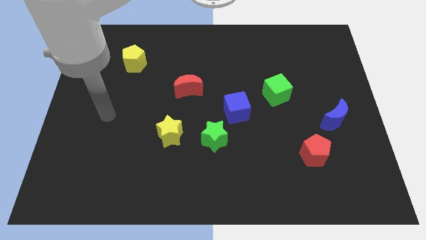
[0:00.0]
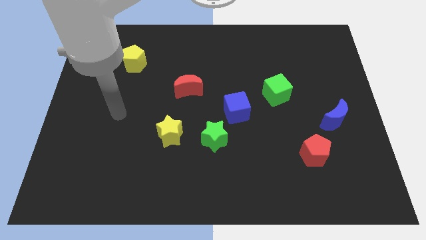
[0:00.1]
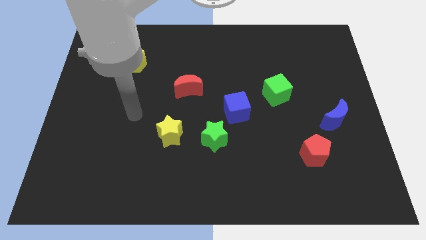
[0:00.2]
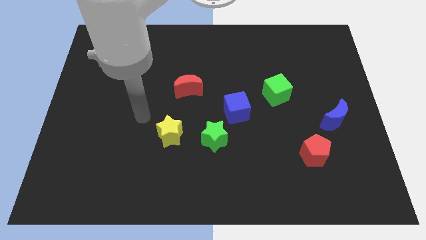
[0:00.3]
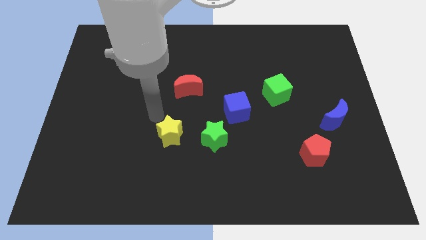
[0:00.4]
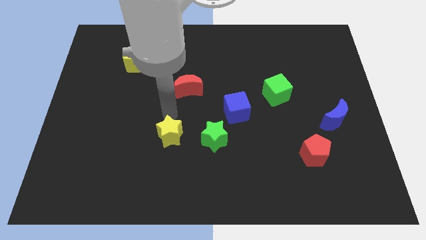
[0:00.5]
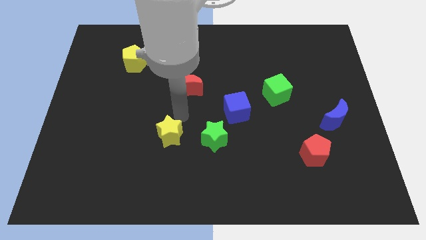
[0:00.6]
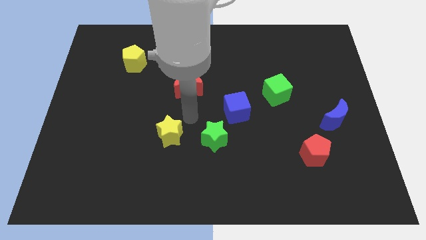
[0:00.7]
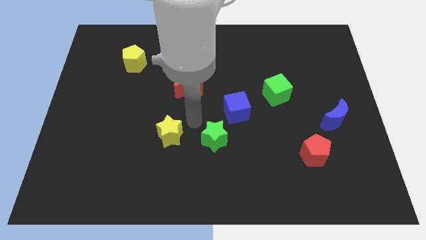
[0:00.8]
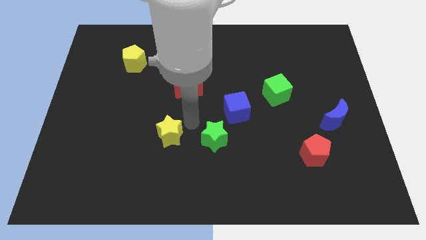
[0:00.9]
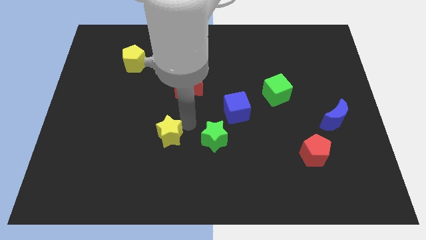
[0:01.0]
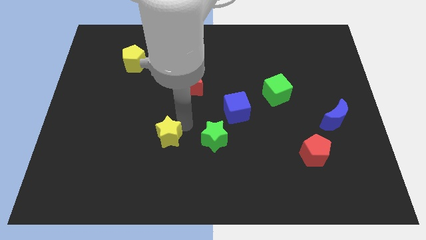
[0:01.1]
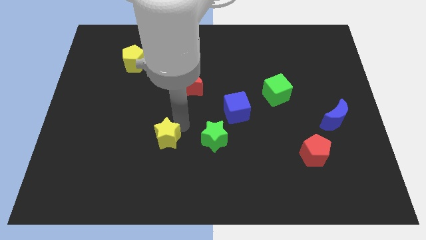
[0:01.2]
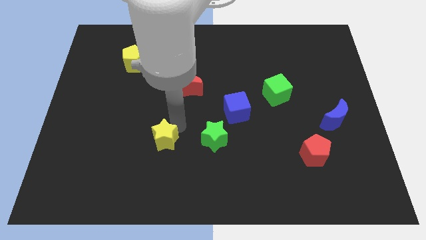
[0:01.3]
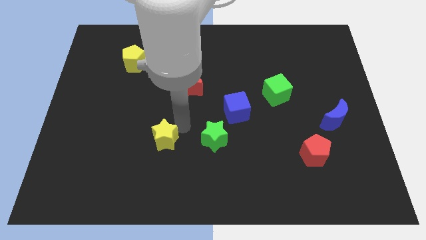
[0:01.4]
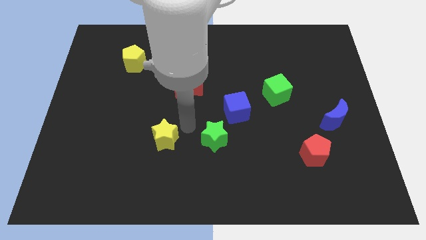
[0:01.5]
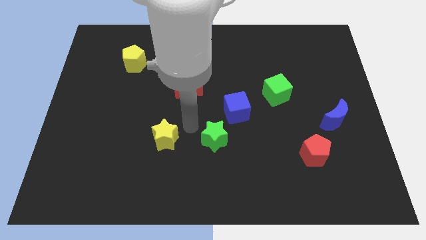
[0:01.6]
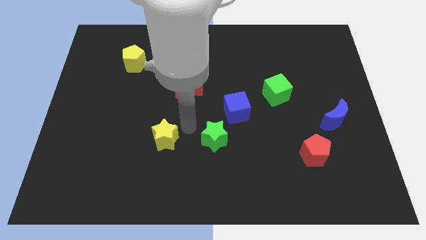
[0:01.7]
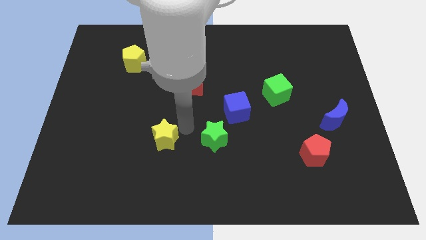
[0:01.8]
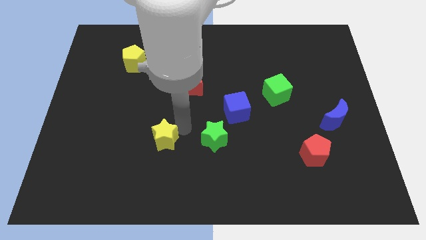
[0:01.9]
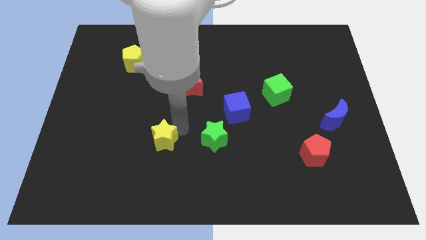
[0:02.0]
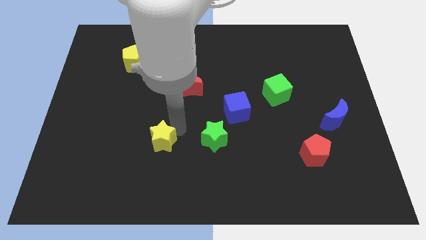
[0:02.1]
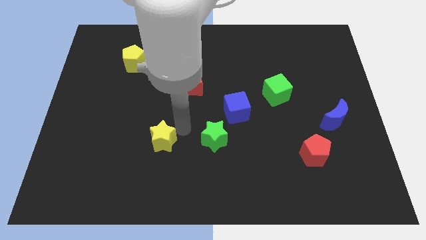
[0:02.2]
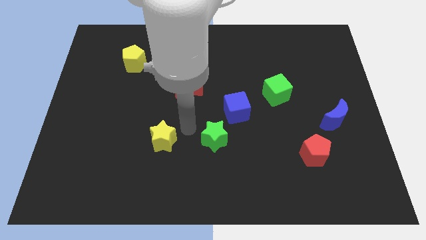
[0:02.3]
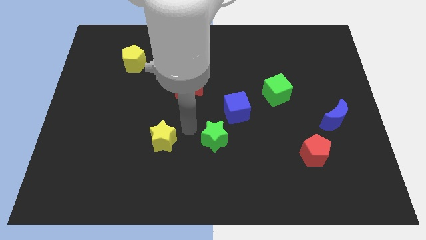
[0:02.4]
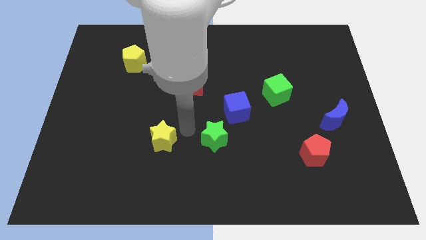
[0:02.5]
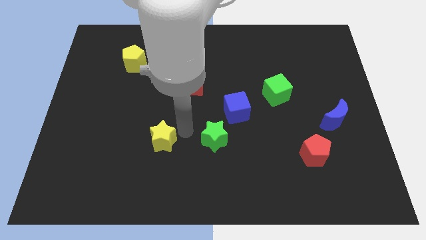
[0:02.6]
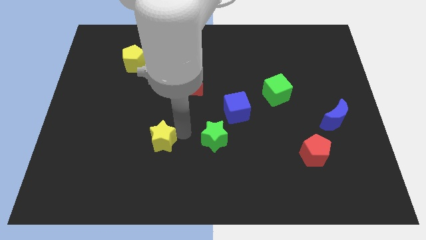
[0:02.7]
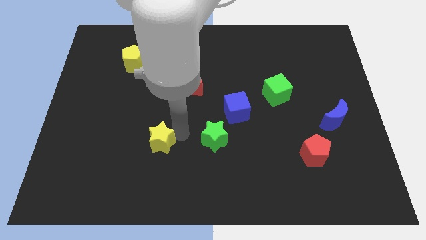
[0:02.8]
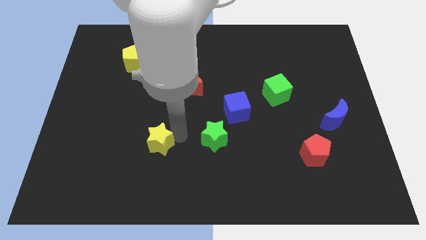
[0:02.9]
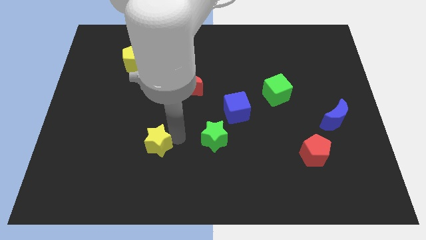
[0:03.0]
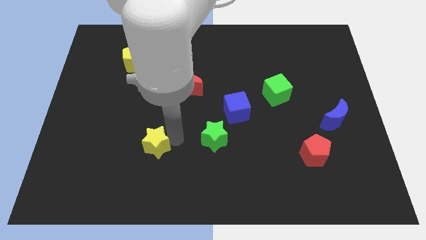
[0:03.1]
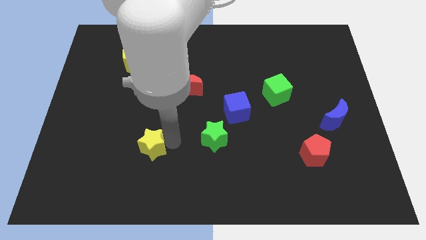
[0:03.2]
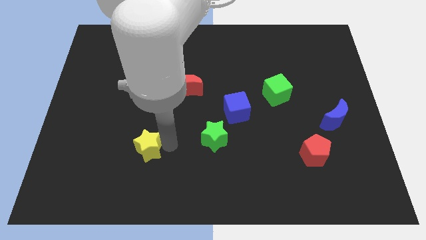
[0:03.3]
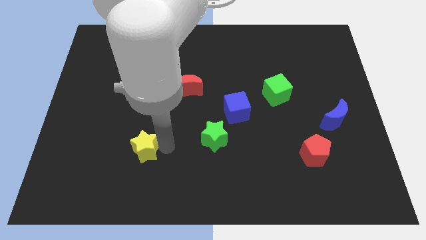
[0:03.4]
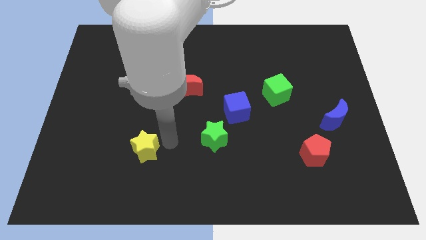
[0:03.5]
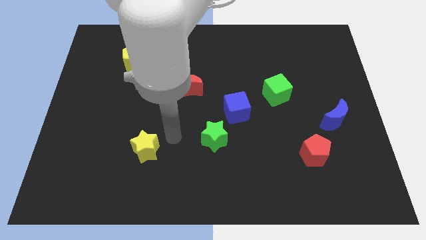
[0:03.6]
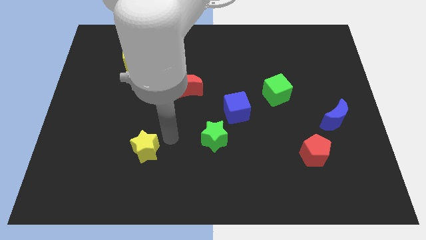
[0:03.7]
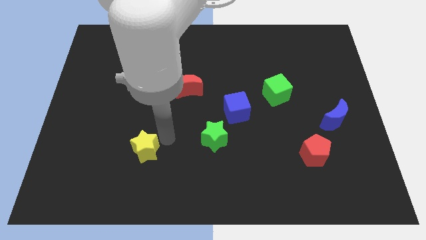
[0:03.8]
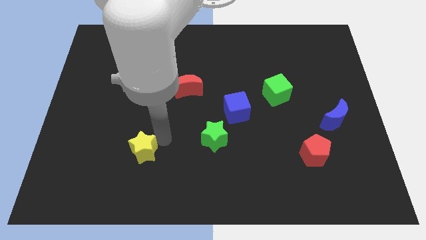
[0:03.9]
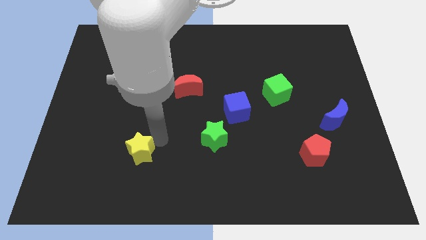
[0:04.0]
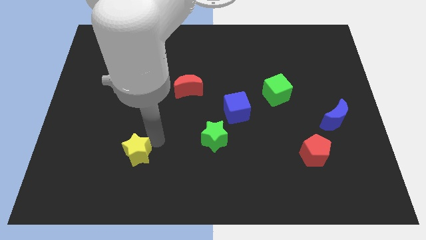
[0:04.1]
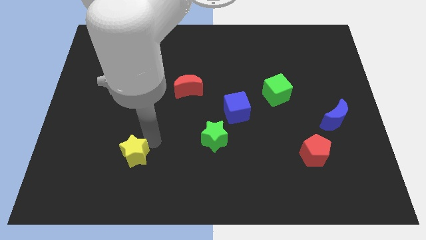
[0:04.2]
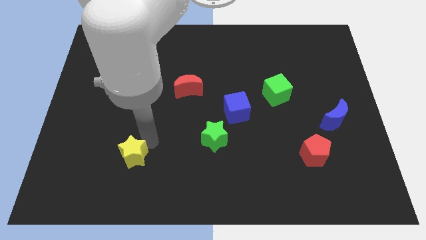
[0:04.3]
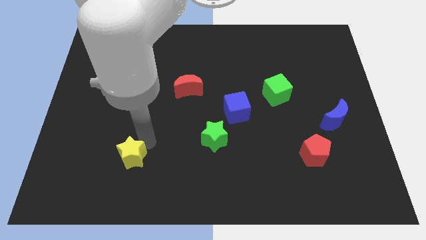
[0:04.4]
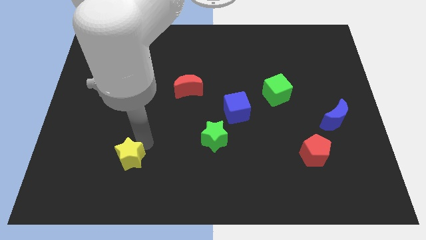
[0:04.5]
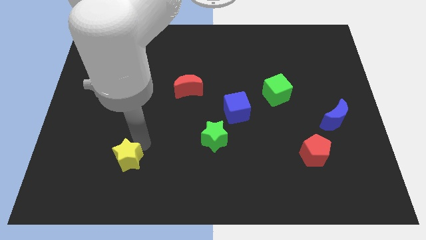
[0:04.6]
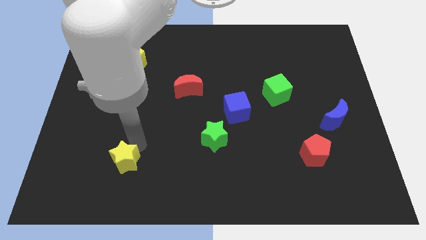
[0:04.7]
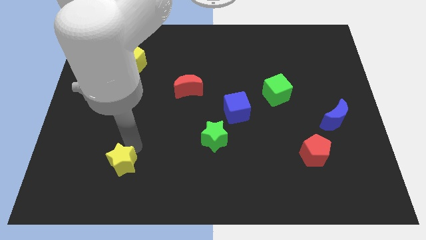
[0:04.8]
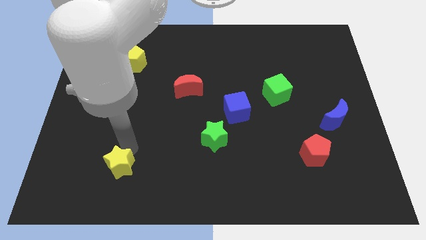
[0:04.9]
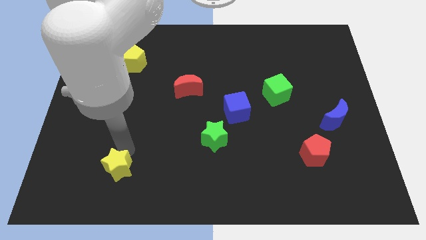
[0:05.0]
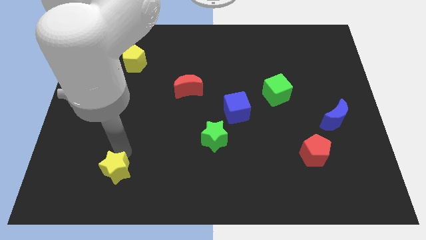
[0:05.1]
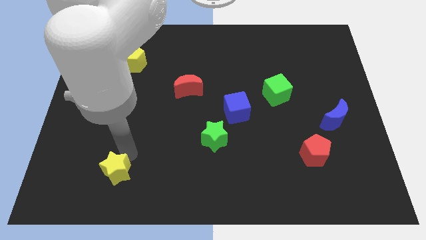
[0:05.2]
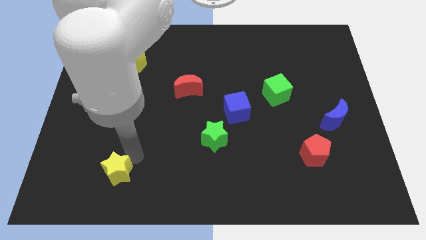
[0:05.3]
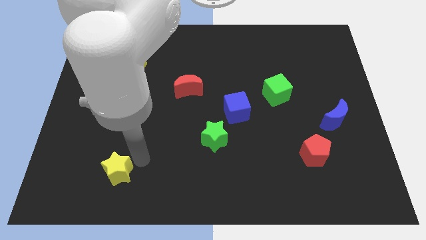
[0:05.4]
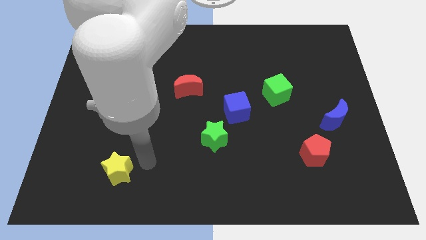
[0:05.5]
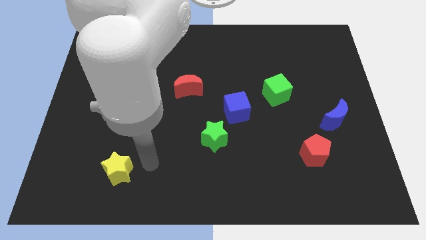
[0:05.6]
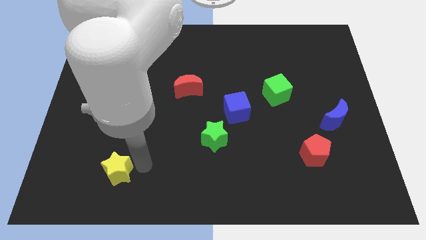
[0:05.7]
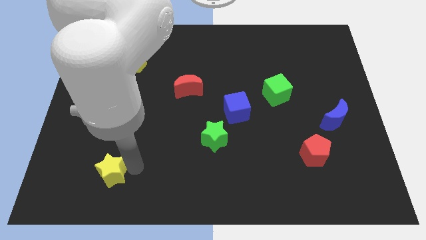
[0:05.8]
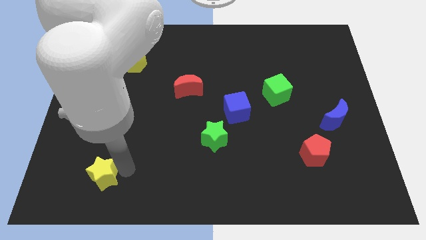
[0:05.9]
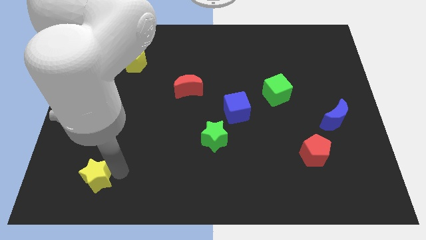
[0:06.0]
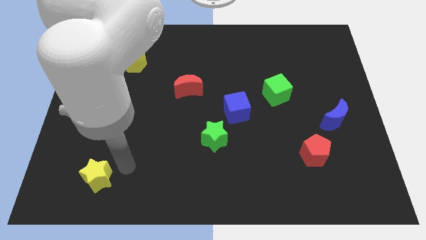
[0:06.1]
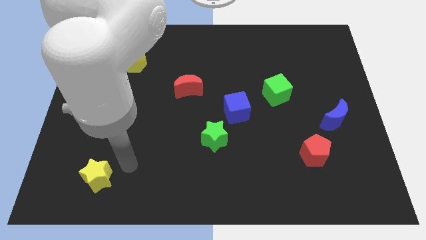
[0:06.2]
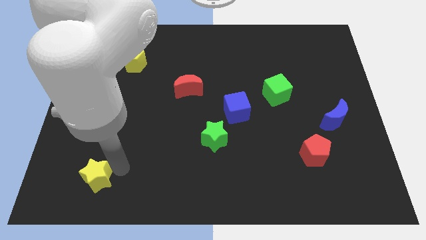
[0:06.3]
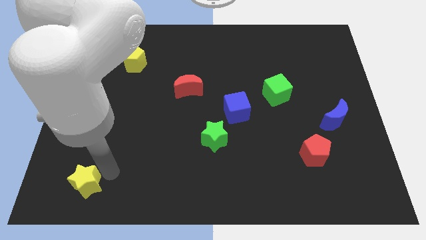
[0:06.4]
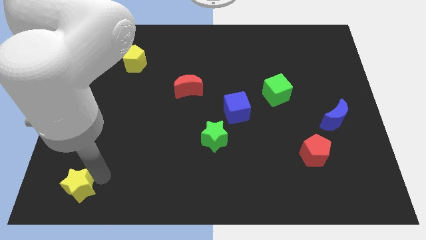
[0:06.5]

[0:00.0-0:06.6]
push the yellow star to the lower left corner
